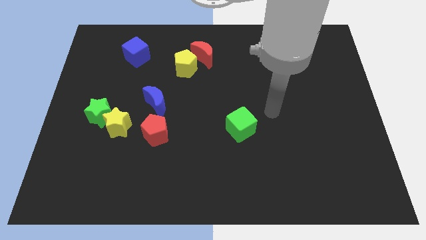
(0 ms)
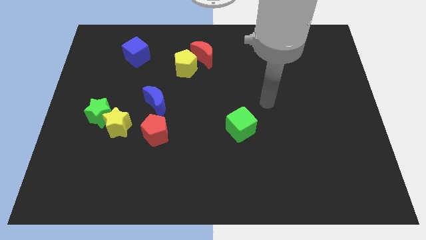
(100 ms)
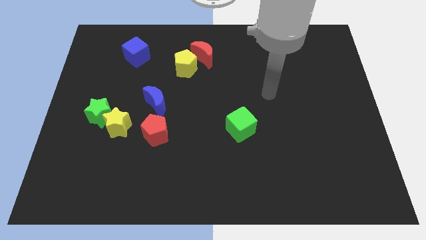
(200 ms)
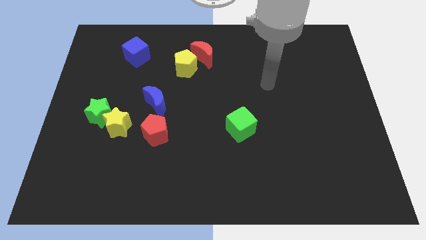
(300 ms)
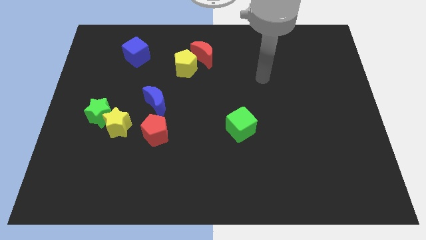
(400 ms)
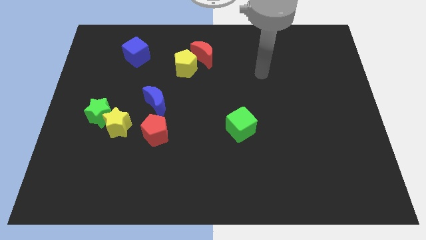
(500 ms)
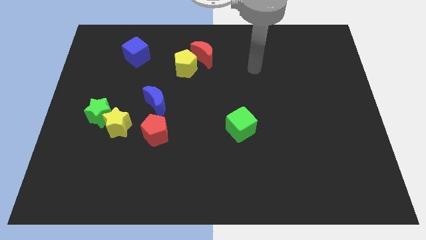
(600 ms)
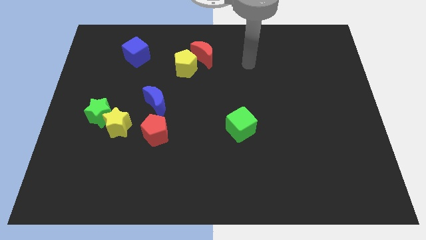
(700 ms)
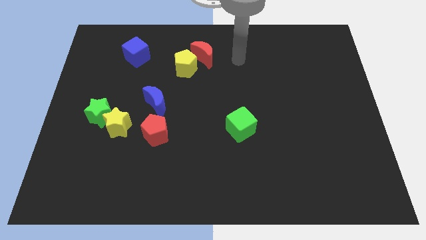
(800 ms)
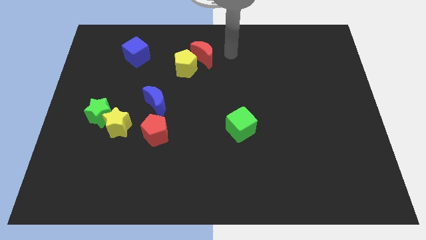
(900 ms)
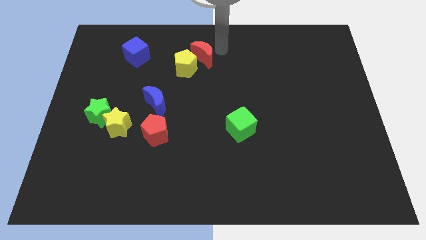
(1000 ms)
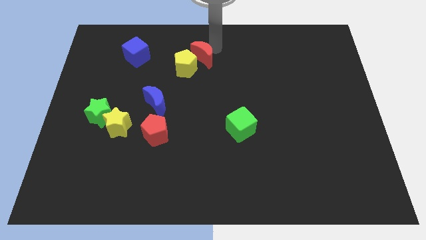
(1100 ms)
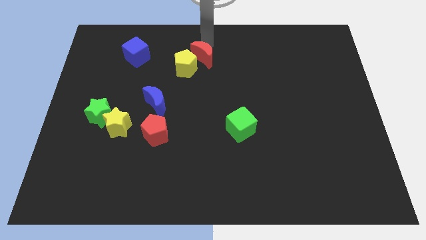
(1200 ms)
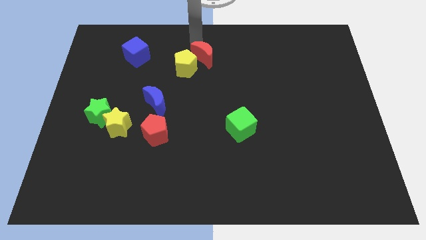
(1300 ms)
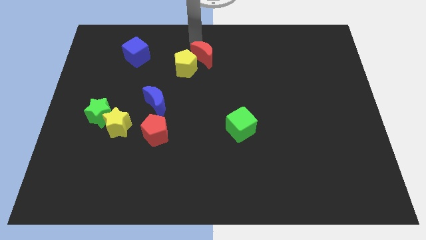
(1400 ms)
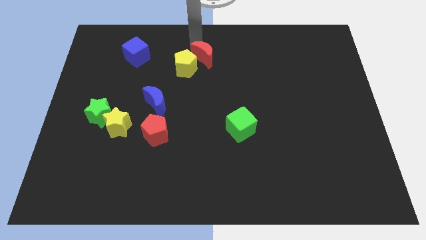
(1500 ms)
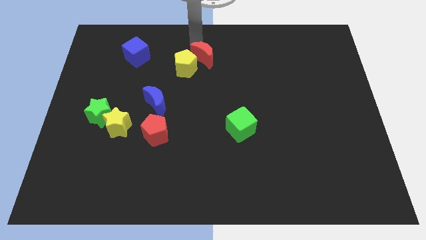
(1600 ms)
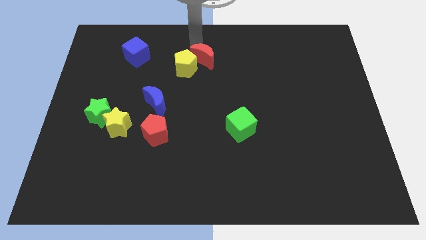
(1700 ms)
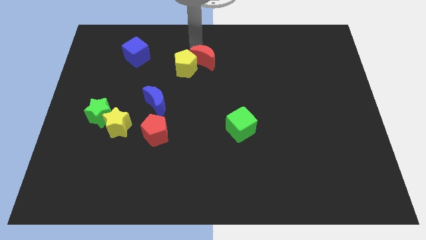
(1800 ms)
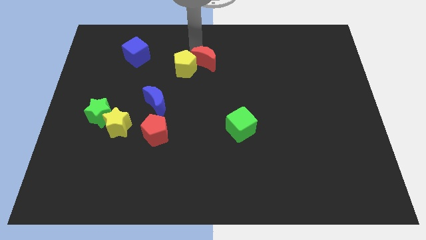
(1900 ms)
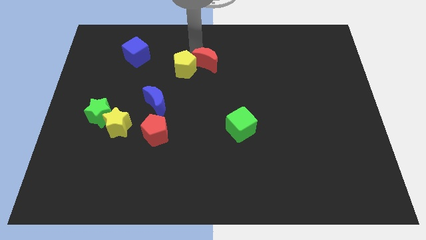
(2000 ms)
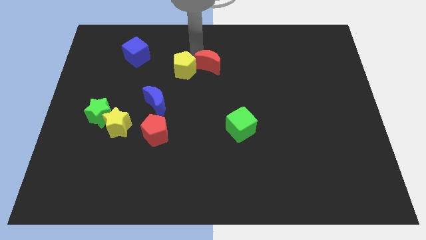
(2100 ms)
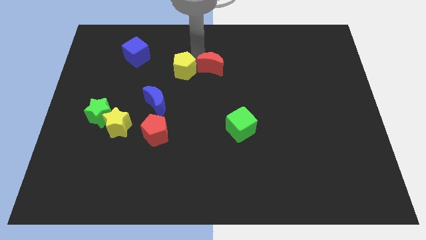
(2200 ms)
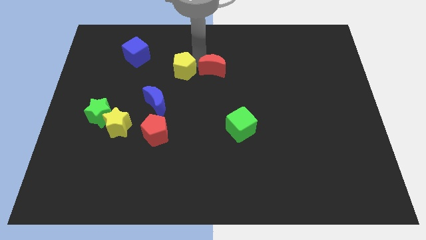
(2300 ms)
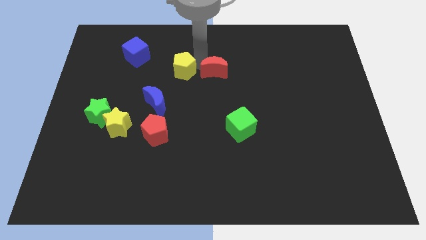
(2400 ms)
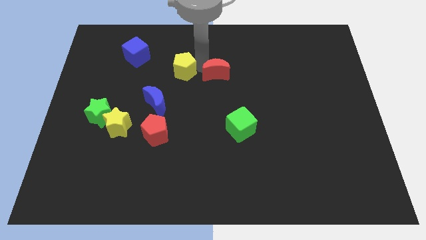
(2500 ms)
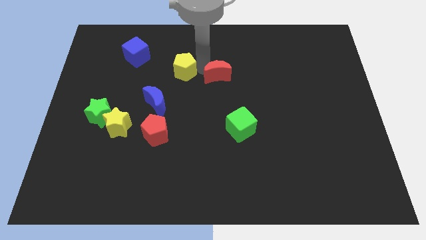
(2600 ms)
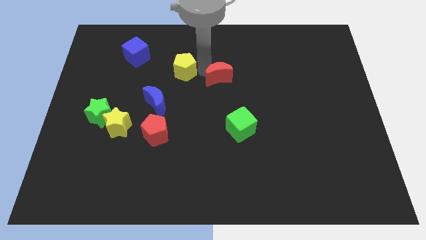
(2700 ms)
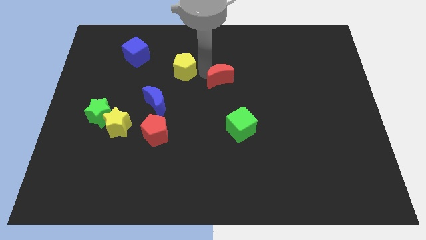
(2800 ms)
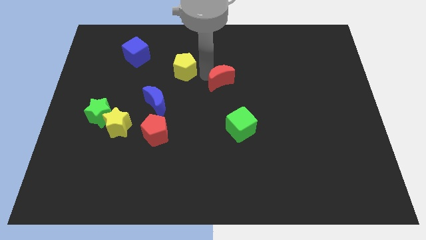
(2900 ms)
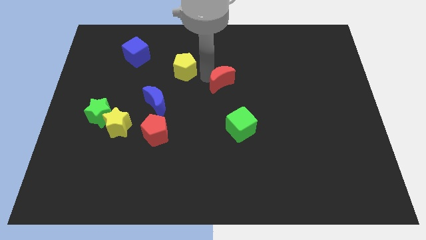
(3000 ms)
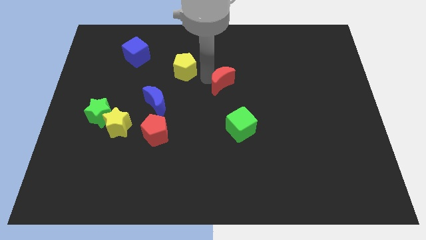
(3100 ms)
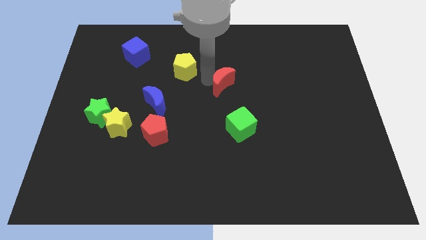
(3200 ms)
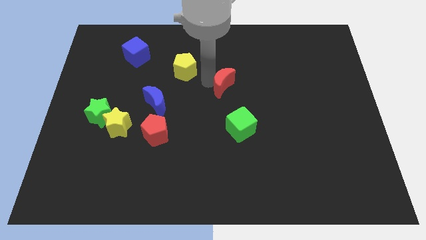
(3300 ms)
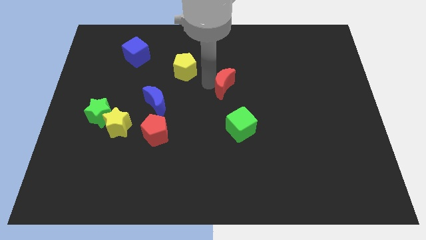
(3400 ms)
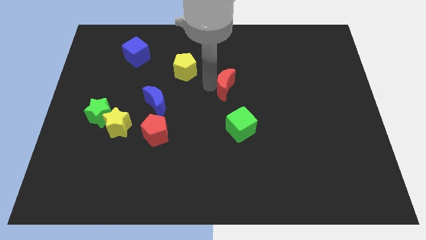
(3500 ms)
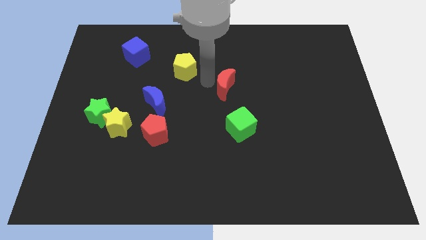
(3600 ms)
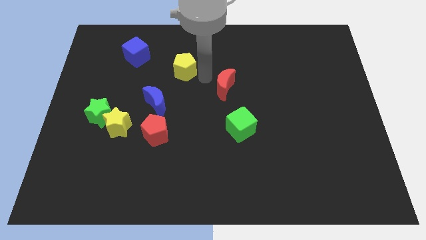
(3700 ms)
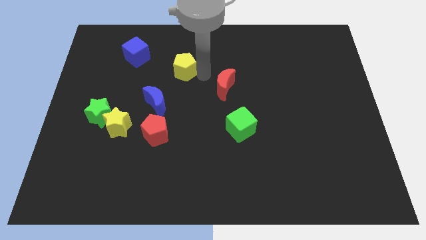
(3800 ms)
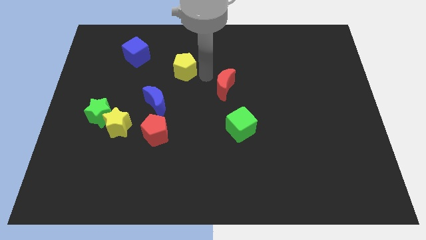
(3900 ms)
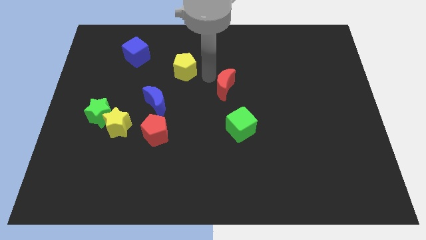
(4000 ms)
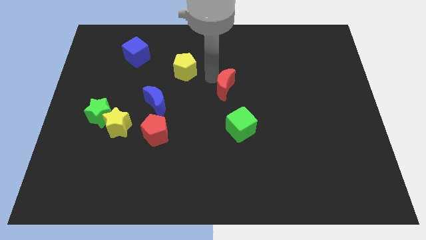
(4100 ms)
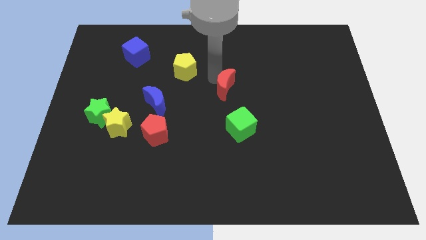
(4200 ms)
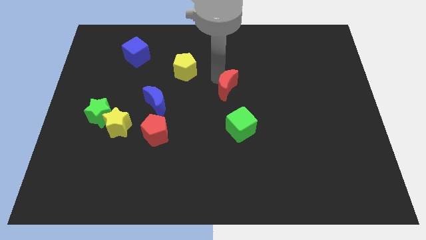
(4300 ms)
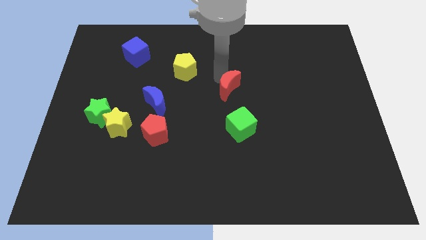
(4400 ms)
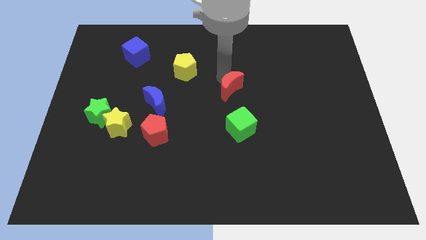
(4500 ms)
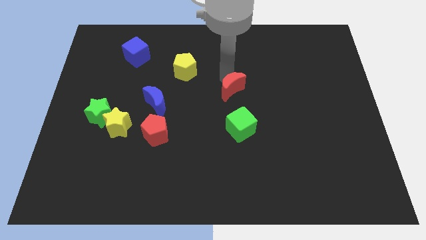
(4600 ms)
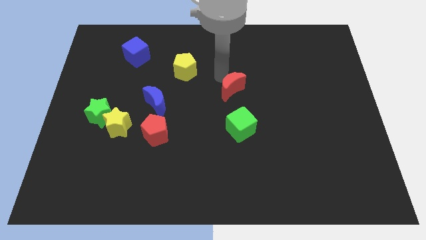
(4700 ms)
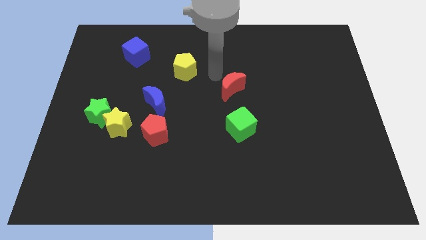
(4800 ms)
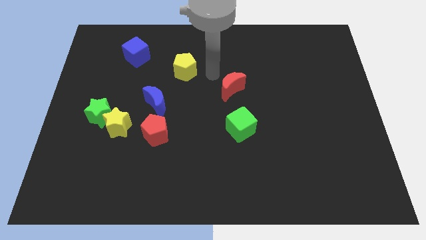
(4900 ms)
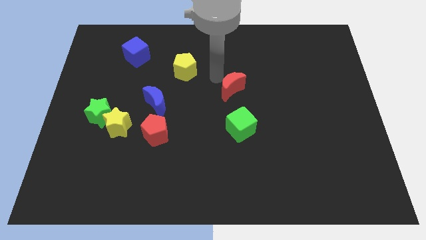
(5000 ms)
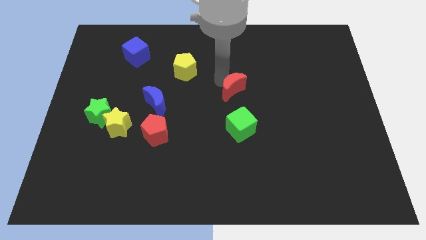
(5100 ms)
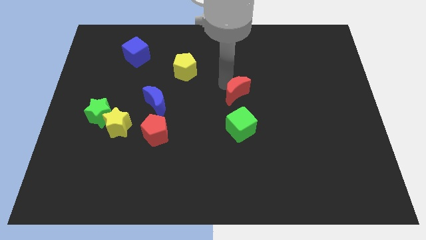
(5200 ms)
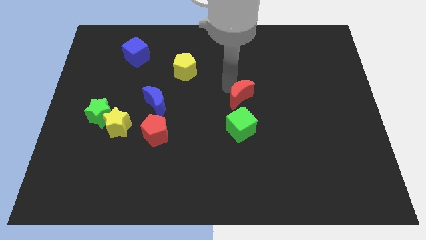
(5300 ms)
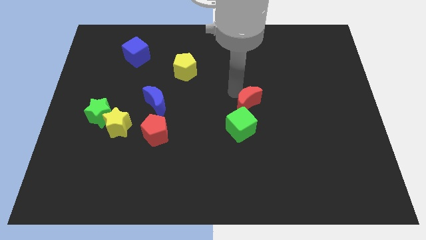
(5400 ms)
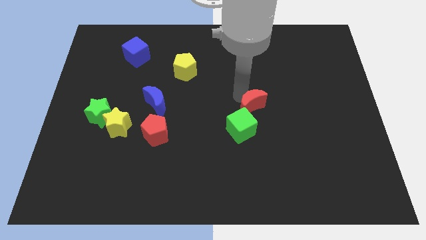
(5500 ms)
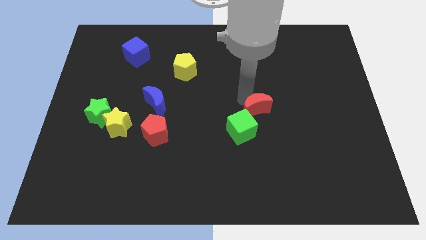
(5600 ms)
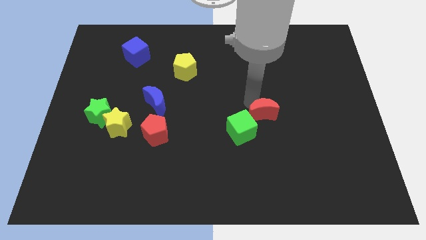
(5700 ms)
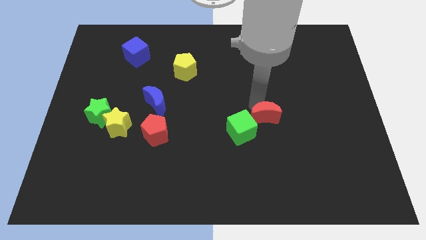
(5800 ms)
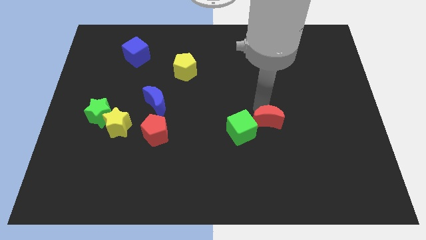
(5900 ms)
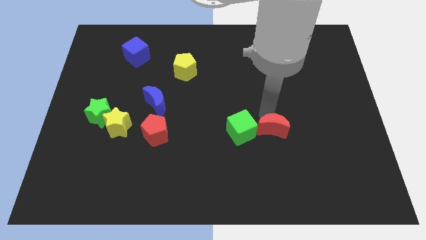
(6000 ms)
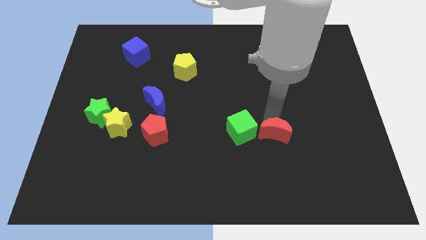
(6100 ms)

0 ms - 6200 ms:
put the red moon to the bottom right of the green cube

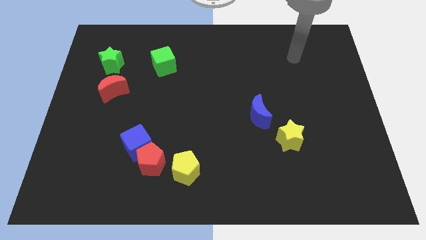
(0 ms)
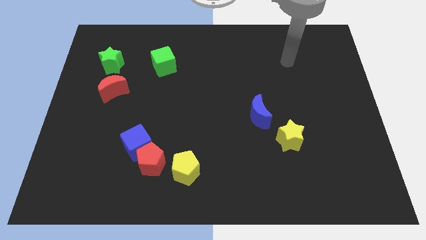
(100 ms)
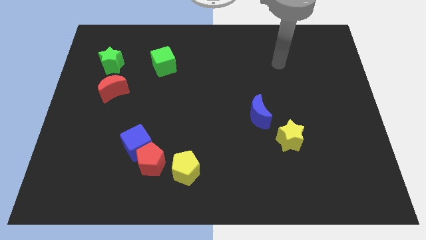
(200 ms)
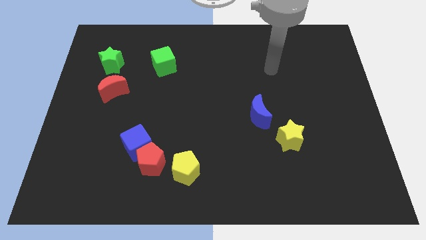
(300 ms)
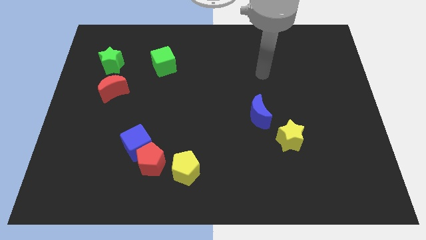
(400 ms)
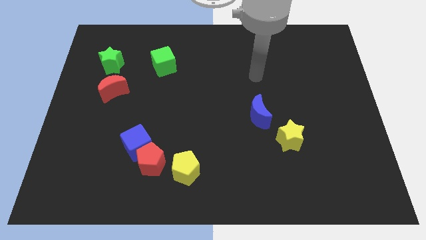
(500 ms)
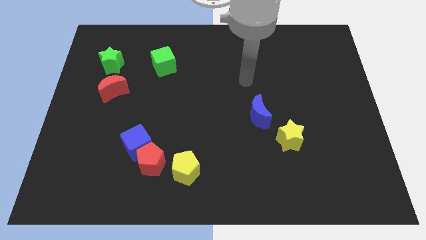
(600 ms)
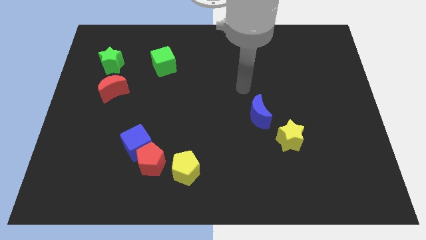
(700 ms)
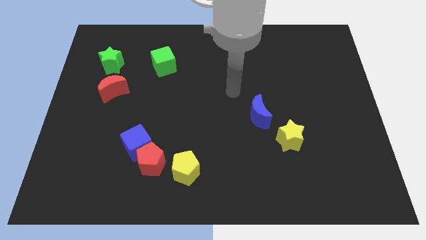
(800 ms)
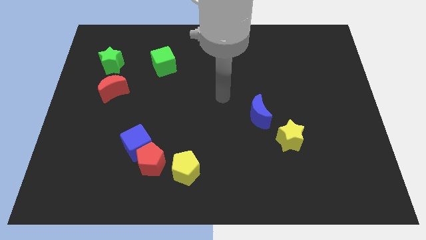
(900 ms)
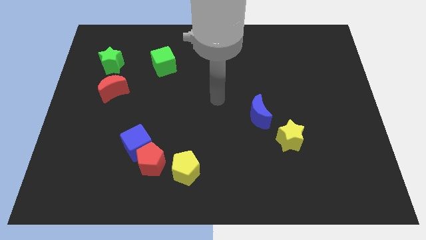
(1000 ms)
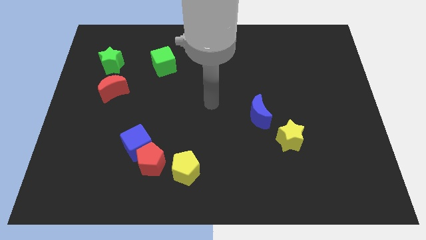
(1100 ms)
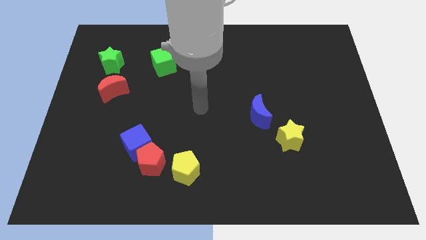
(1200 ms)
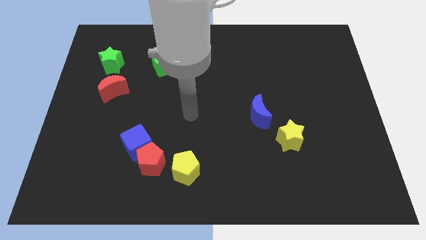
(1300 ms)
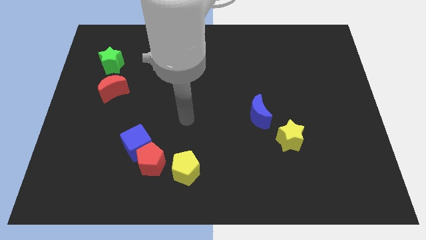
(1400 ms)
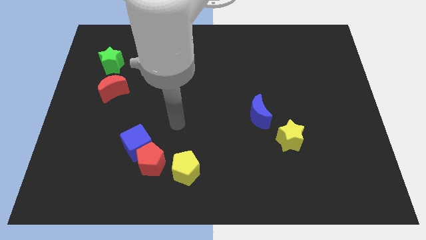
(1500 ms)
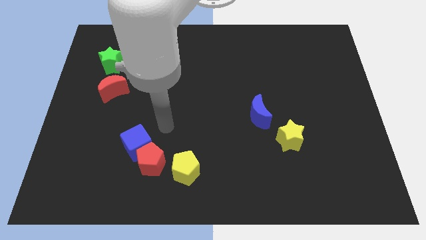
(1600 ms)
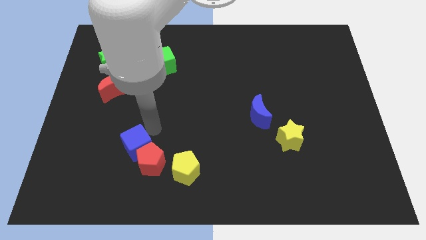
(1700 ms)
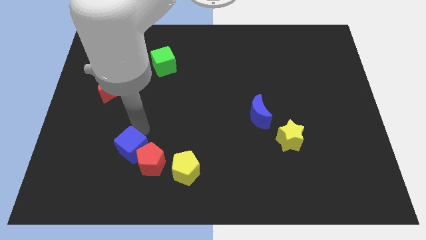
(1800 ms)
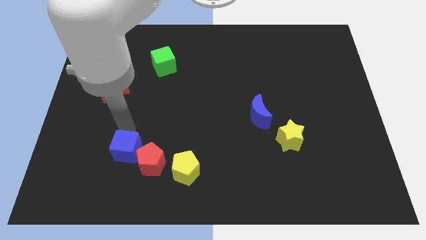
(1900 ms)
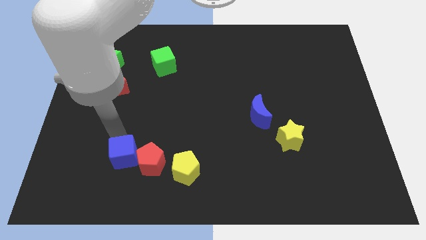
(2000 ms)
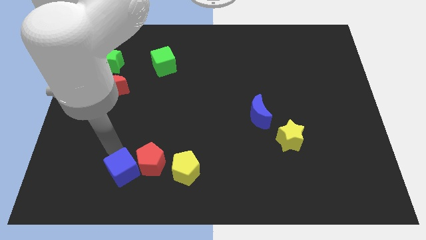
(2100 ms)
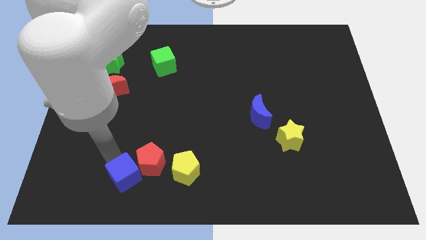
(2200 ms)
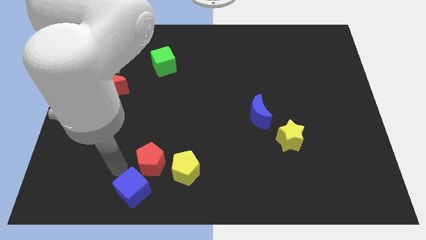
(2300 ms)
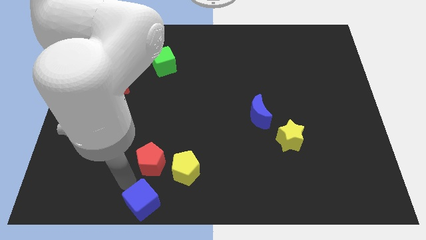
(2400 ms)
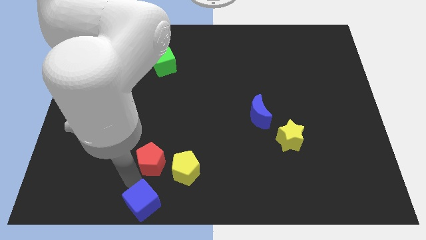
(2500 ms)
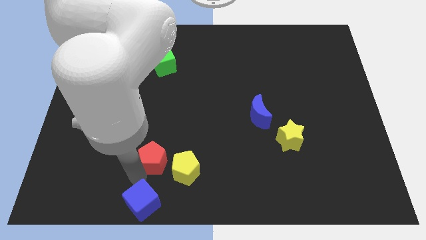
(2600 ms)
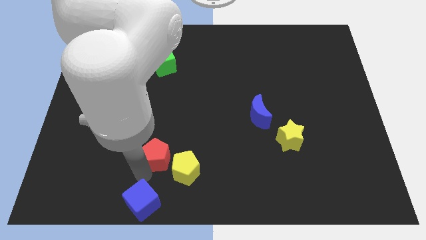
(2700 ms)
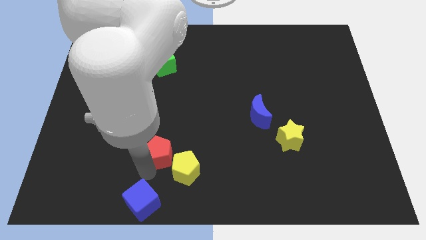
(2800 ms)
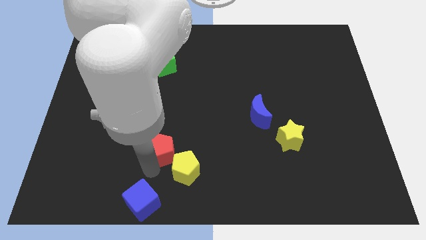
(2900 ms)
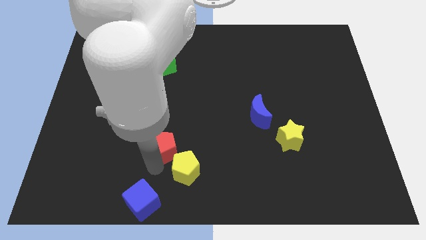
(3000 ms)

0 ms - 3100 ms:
push the red pentagon above the yellow pentagon
